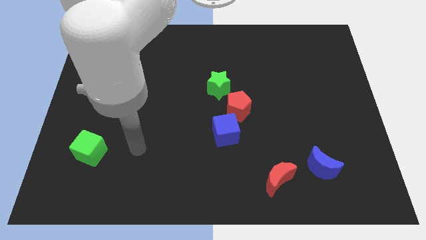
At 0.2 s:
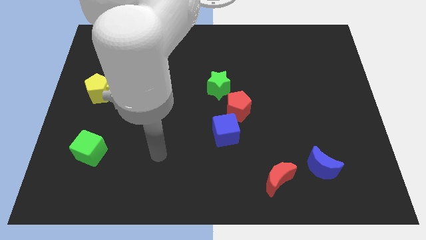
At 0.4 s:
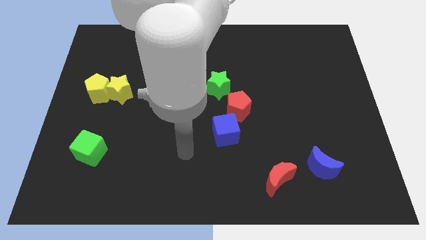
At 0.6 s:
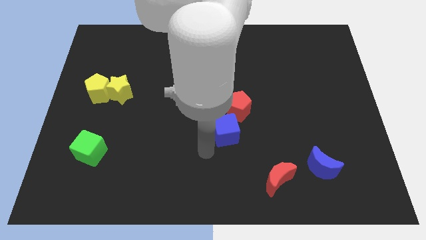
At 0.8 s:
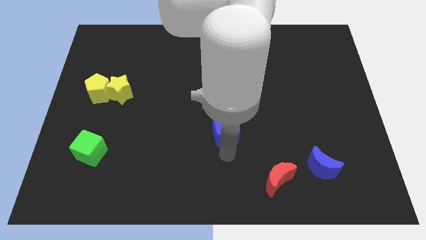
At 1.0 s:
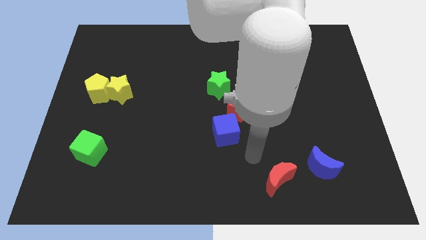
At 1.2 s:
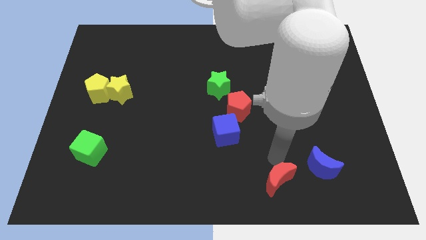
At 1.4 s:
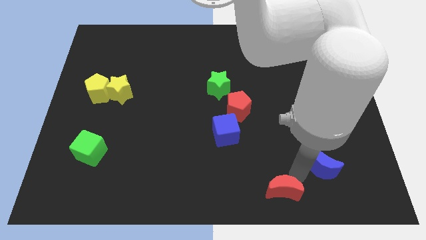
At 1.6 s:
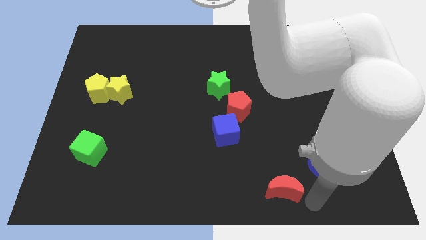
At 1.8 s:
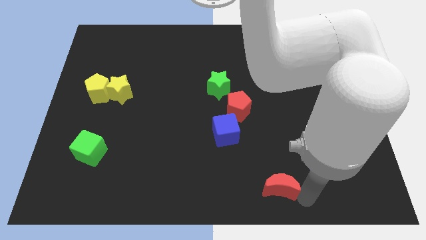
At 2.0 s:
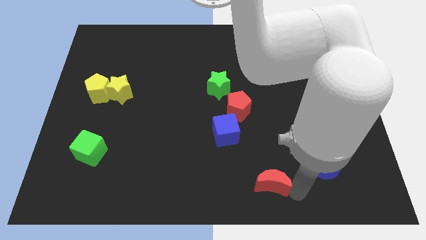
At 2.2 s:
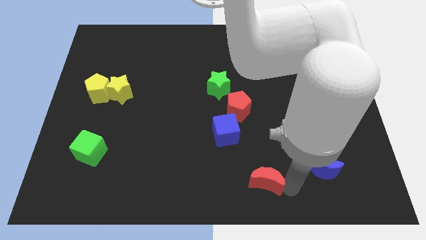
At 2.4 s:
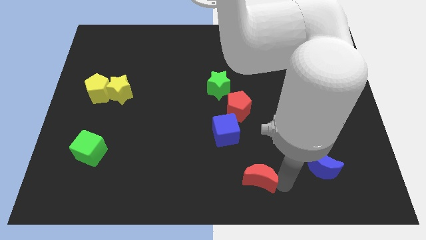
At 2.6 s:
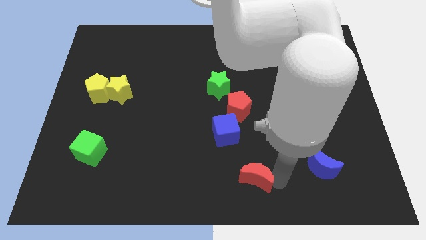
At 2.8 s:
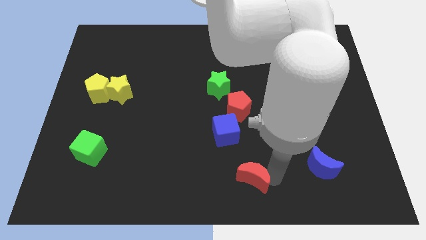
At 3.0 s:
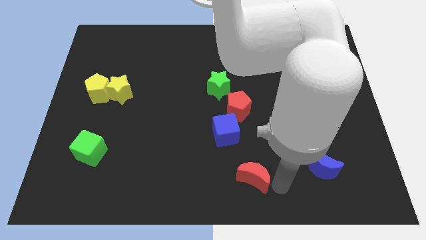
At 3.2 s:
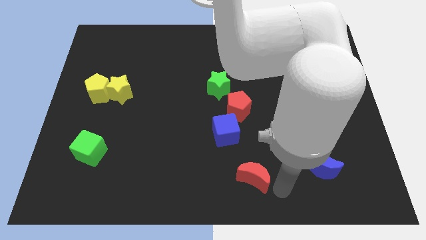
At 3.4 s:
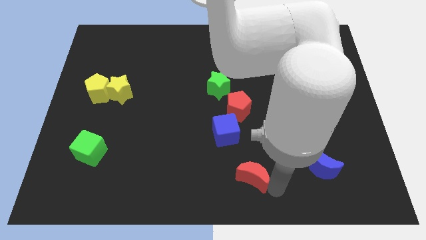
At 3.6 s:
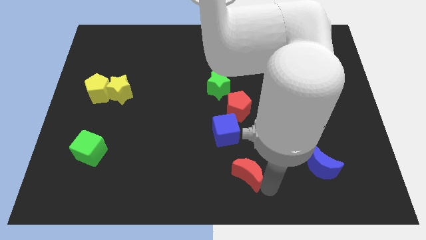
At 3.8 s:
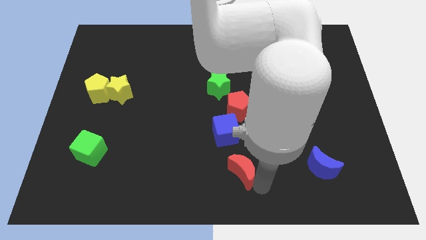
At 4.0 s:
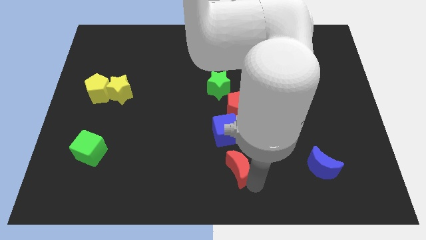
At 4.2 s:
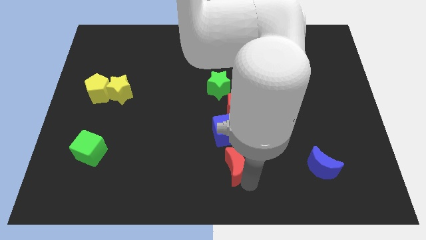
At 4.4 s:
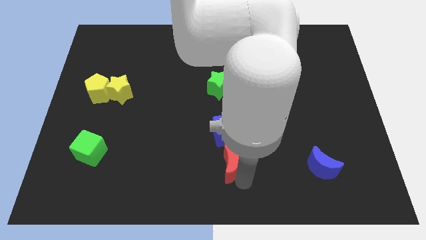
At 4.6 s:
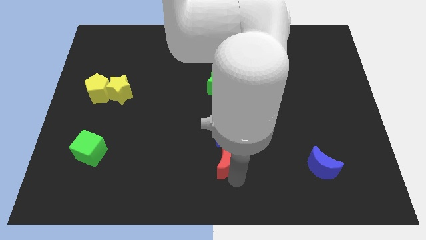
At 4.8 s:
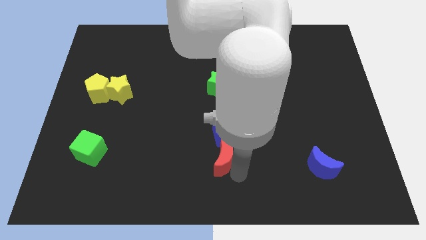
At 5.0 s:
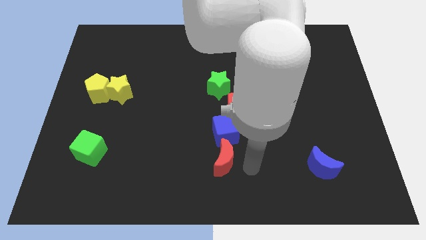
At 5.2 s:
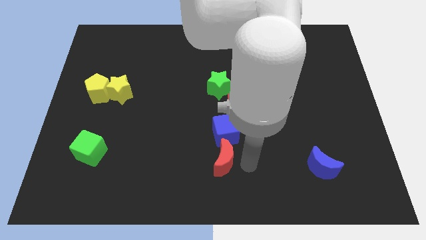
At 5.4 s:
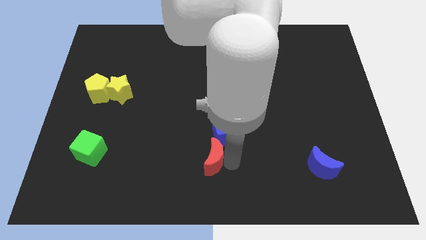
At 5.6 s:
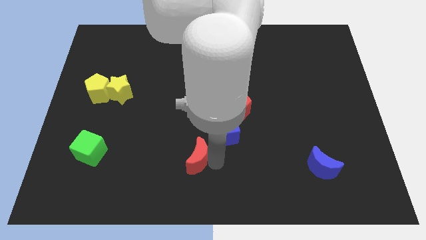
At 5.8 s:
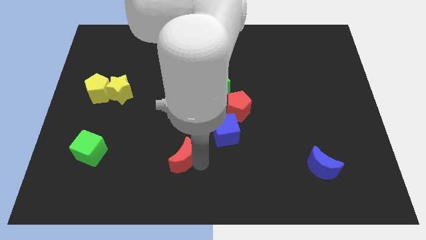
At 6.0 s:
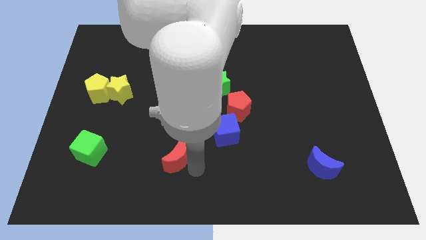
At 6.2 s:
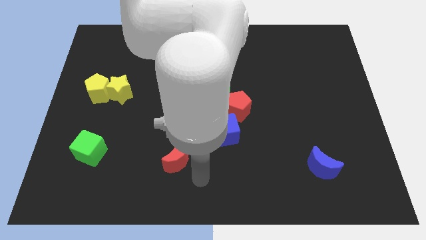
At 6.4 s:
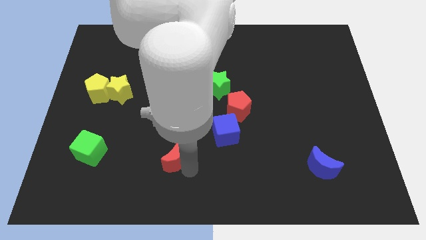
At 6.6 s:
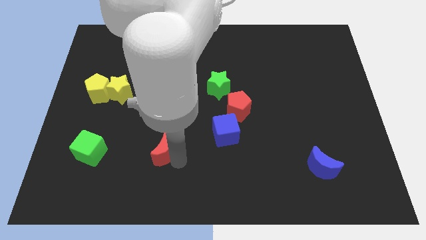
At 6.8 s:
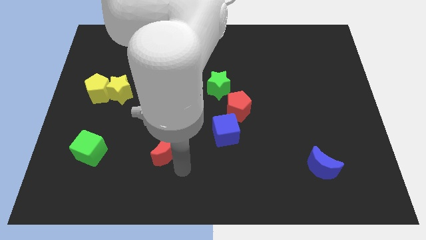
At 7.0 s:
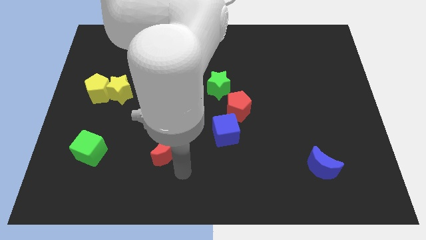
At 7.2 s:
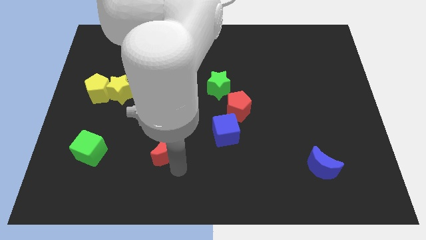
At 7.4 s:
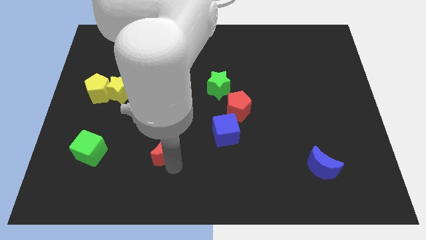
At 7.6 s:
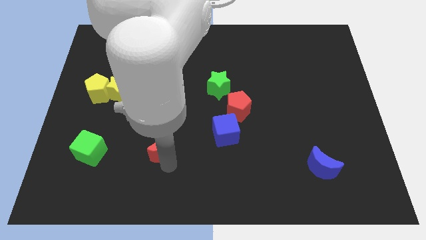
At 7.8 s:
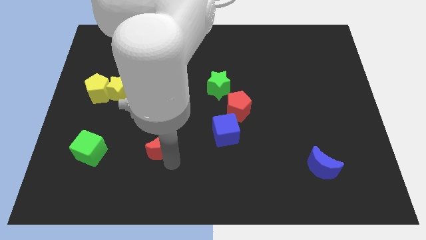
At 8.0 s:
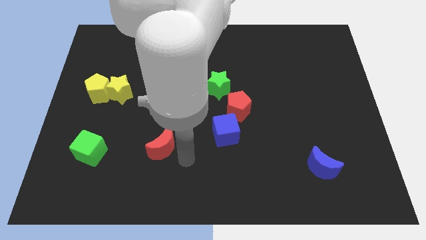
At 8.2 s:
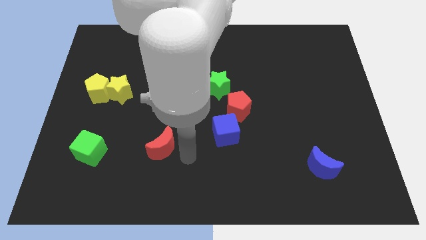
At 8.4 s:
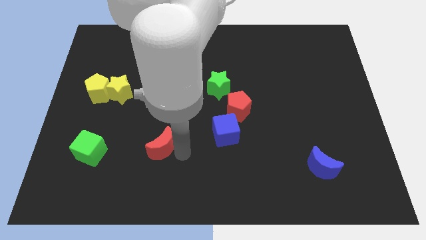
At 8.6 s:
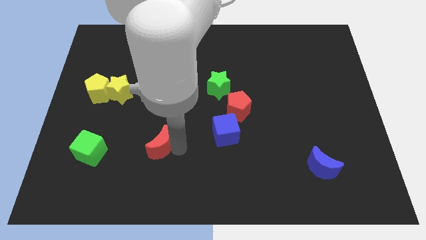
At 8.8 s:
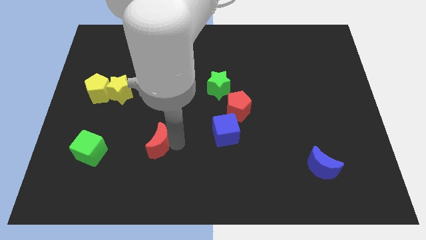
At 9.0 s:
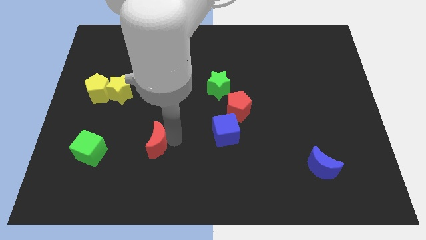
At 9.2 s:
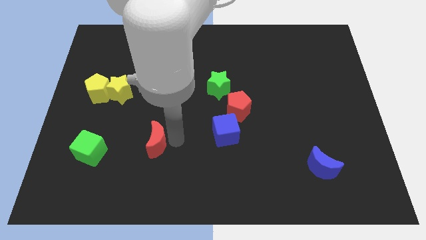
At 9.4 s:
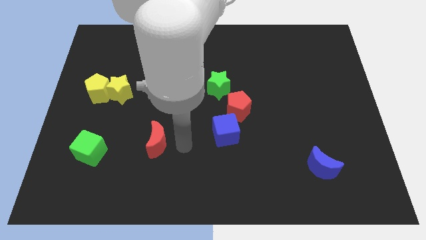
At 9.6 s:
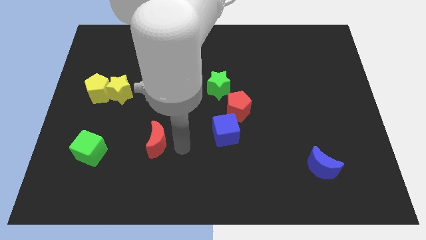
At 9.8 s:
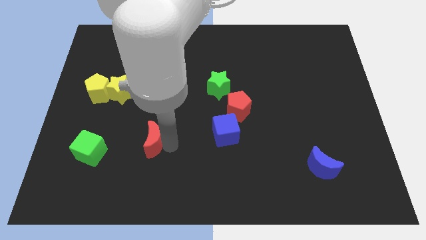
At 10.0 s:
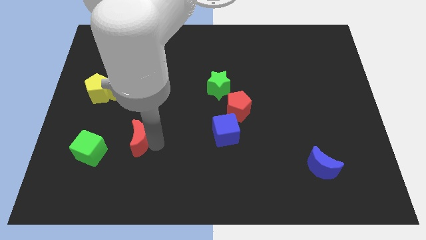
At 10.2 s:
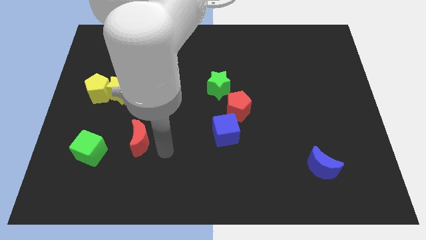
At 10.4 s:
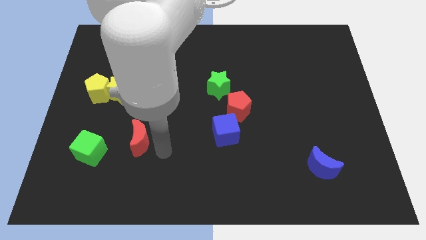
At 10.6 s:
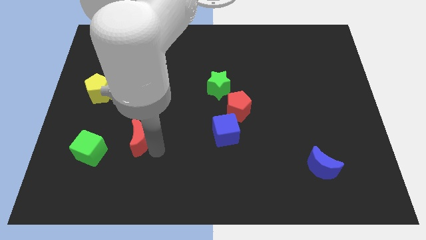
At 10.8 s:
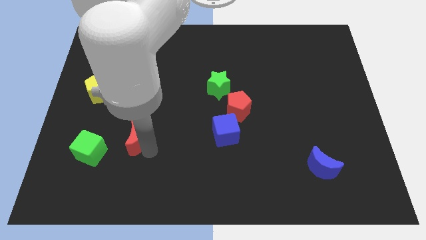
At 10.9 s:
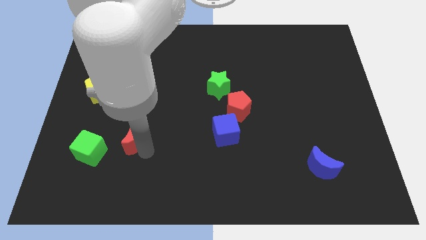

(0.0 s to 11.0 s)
push the red moon diagonally up and to the right of the green cube

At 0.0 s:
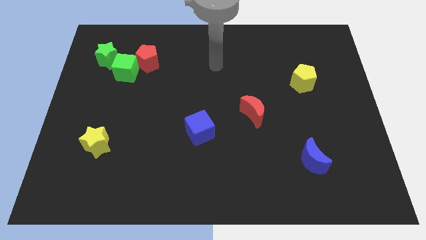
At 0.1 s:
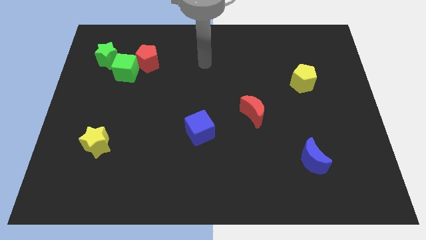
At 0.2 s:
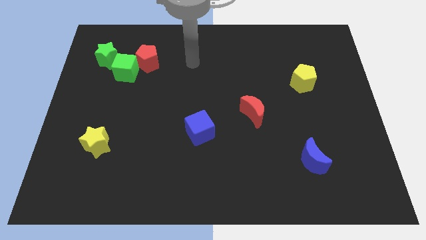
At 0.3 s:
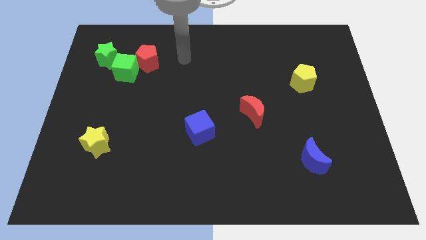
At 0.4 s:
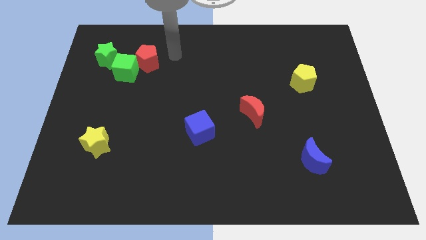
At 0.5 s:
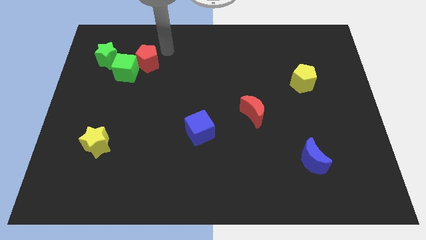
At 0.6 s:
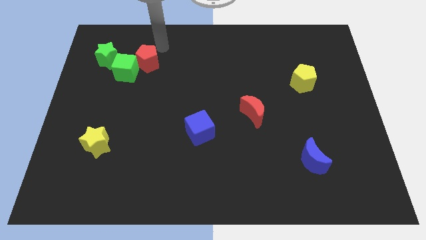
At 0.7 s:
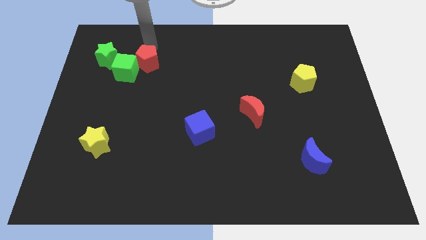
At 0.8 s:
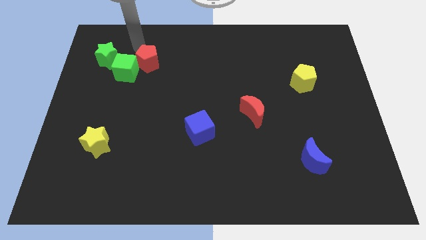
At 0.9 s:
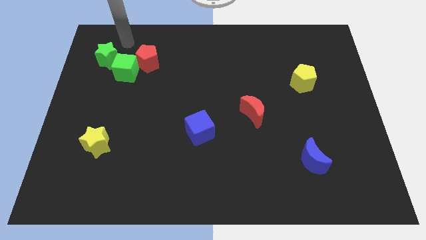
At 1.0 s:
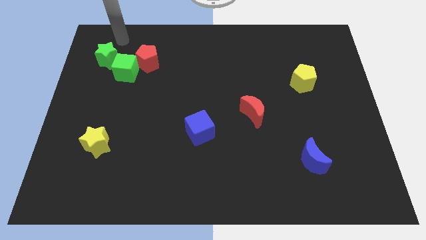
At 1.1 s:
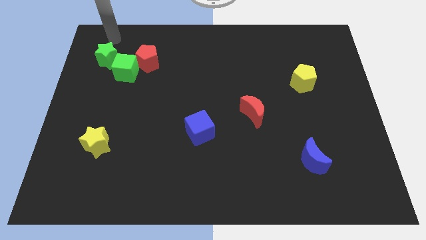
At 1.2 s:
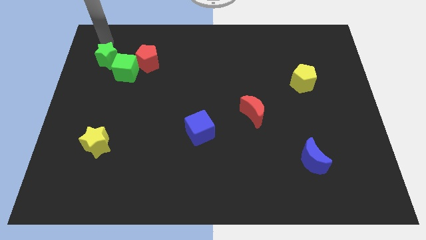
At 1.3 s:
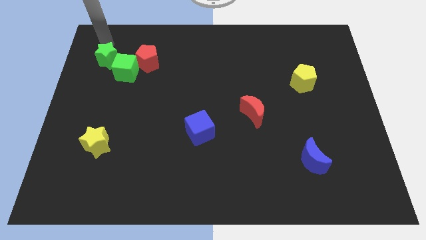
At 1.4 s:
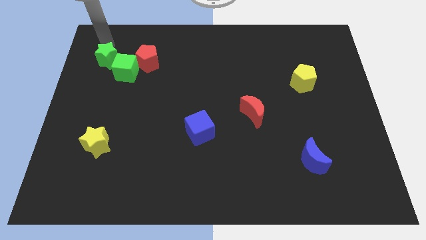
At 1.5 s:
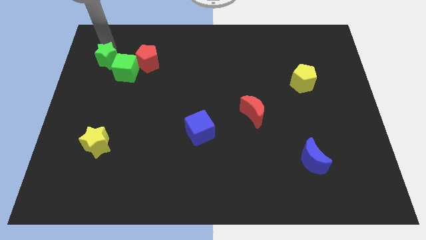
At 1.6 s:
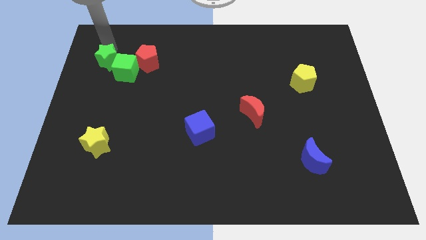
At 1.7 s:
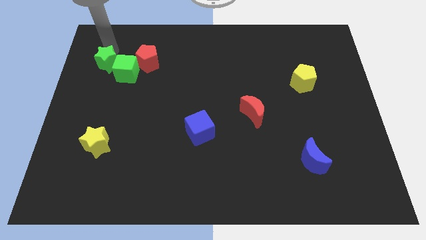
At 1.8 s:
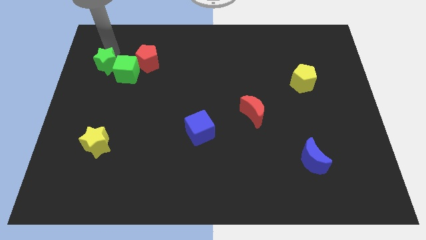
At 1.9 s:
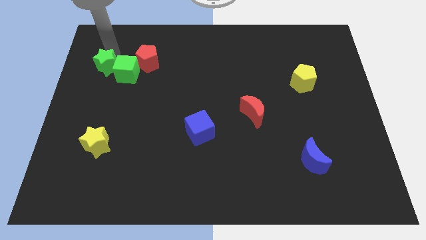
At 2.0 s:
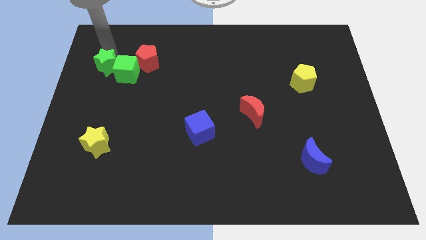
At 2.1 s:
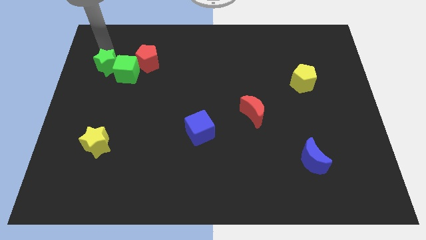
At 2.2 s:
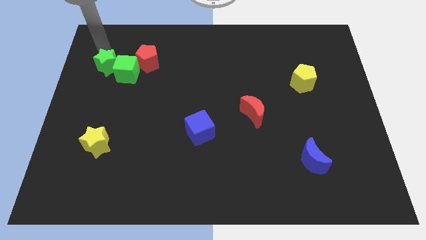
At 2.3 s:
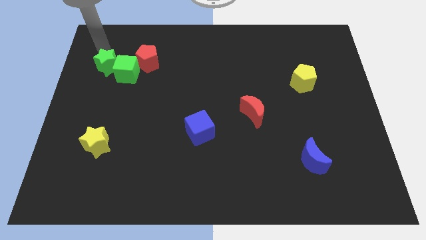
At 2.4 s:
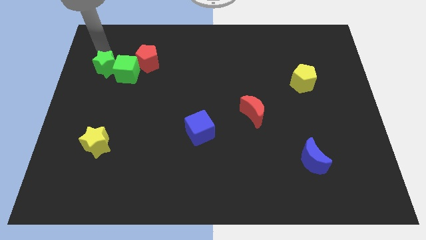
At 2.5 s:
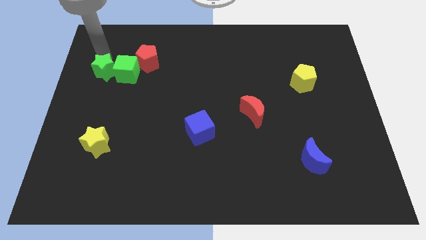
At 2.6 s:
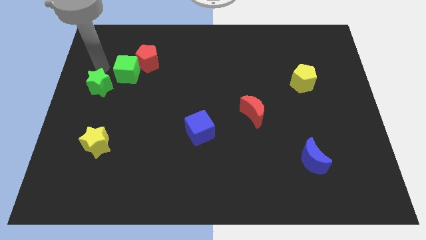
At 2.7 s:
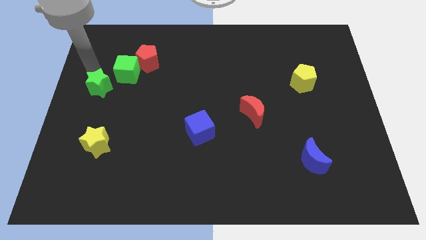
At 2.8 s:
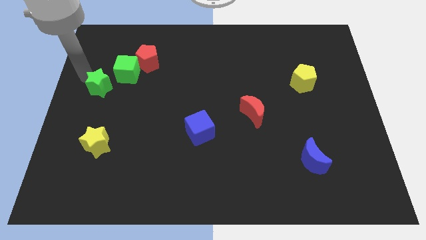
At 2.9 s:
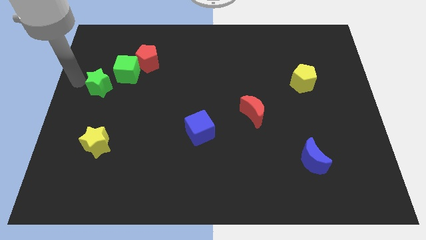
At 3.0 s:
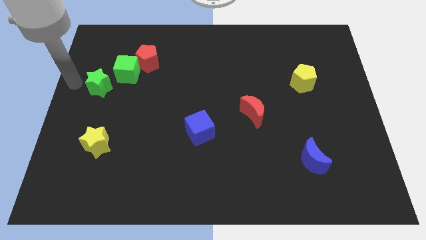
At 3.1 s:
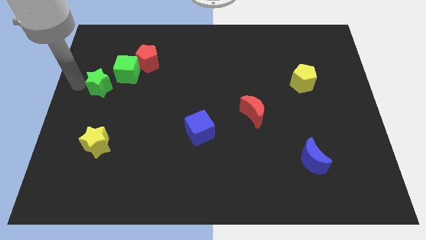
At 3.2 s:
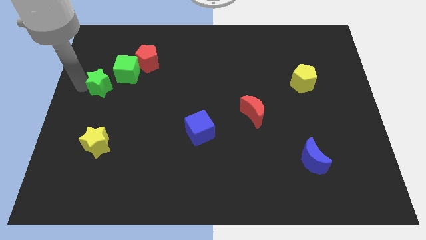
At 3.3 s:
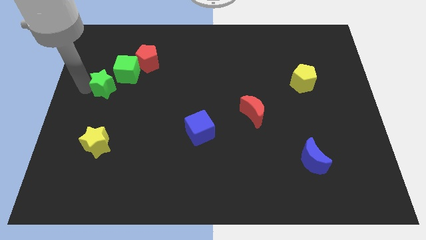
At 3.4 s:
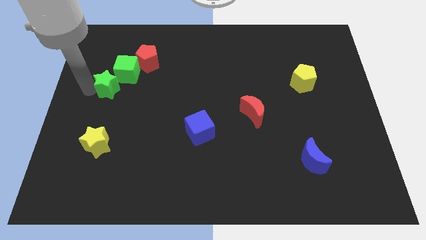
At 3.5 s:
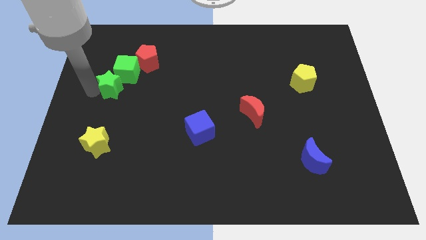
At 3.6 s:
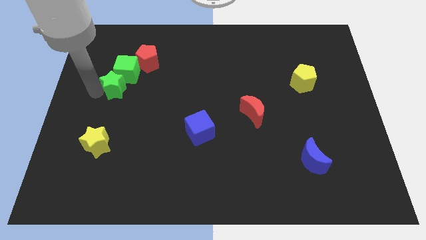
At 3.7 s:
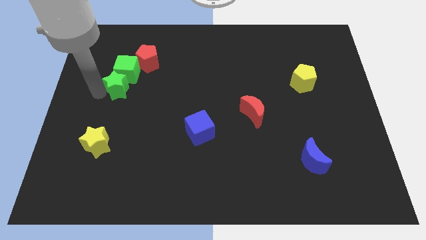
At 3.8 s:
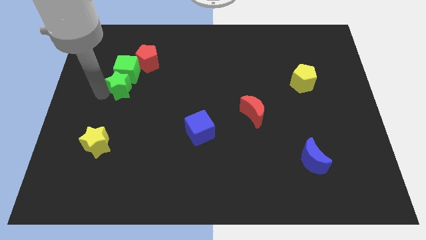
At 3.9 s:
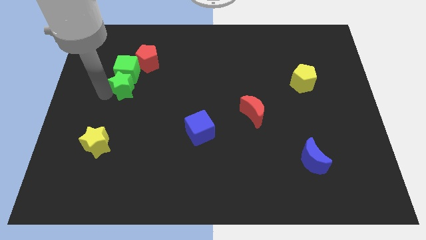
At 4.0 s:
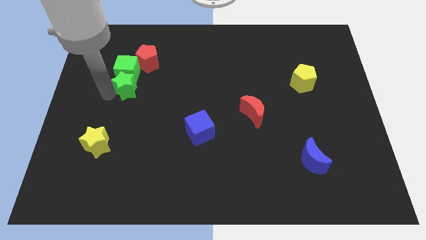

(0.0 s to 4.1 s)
slide the green star below the red pentagon
